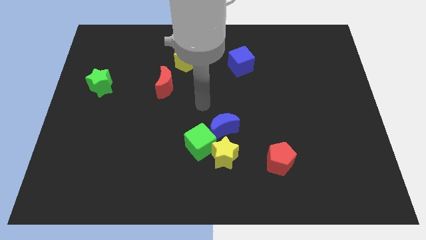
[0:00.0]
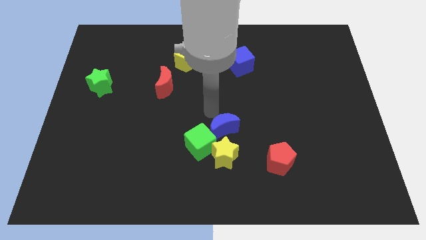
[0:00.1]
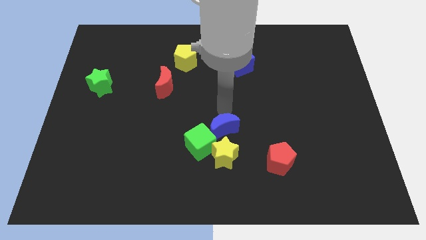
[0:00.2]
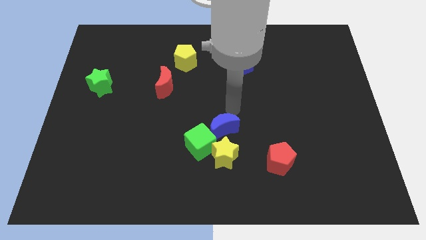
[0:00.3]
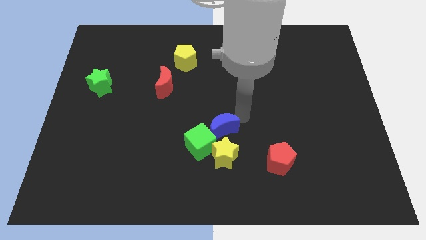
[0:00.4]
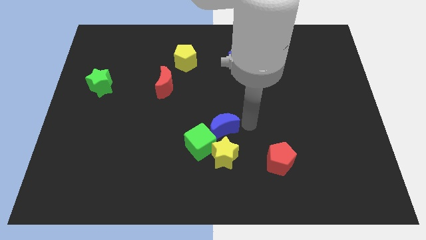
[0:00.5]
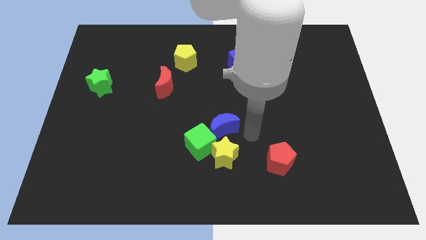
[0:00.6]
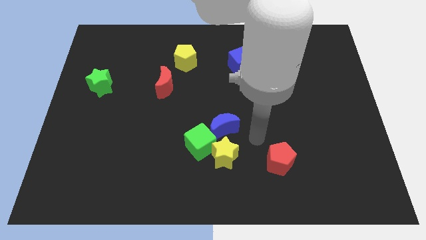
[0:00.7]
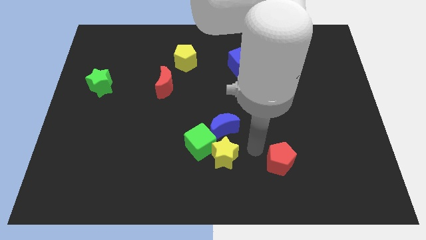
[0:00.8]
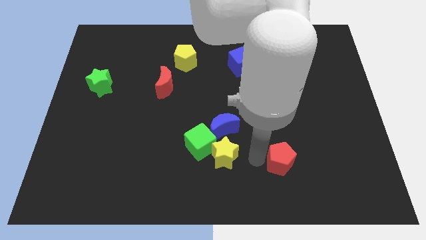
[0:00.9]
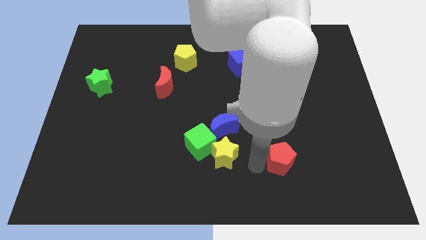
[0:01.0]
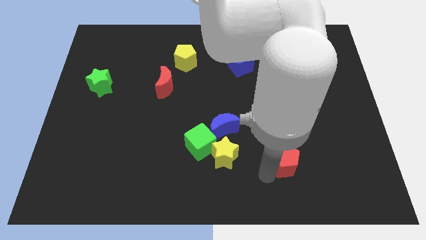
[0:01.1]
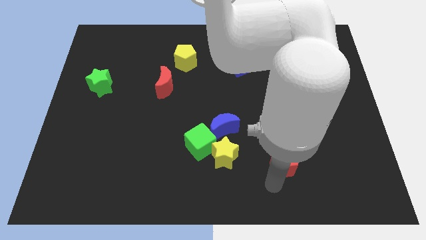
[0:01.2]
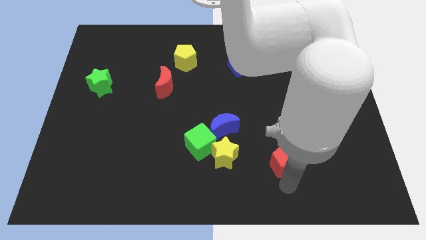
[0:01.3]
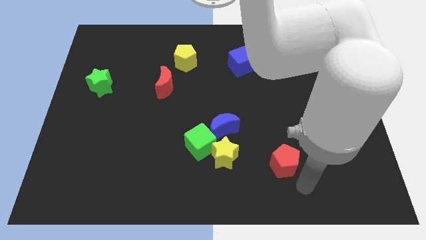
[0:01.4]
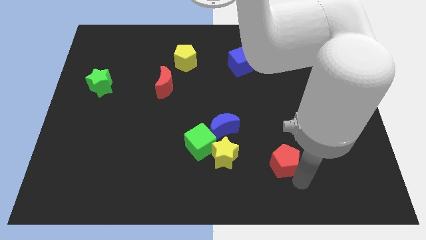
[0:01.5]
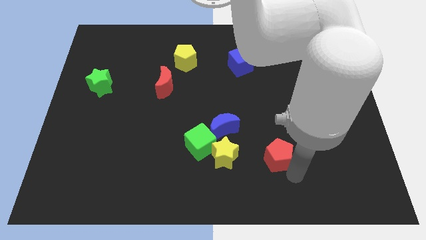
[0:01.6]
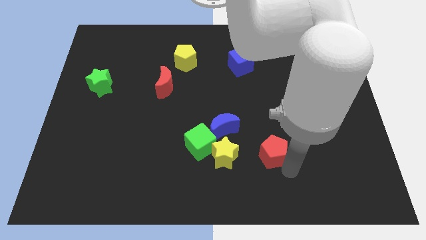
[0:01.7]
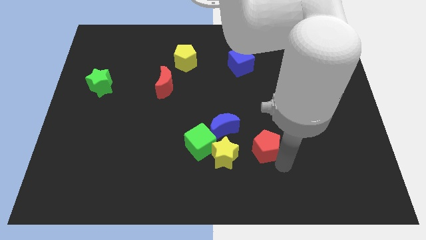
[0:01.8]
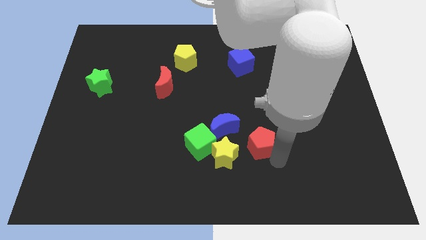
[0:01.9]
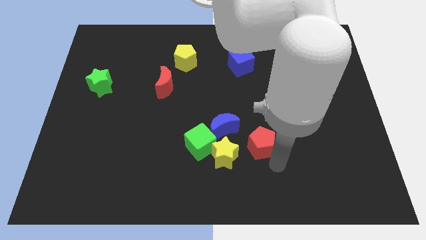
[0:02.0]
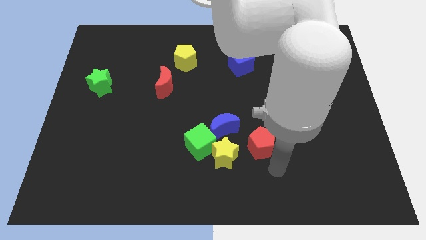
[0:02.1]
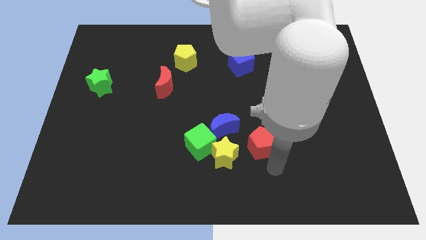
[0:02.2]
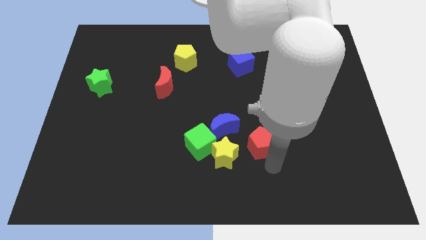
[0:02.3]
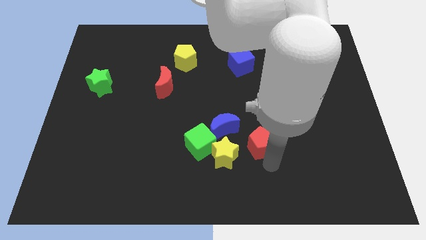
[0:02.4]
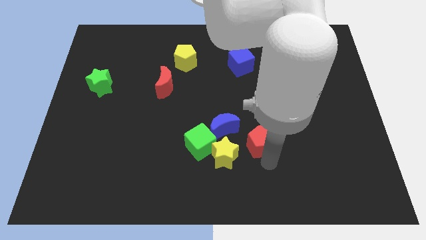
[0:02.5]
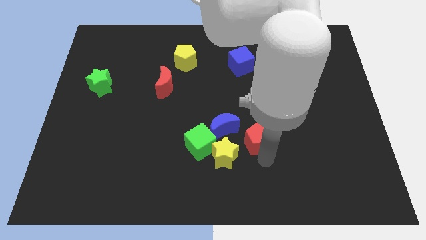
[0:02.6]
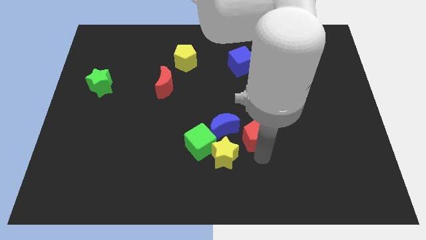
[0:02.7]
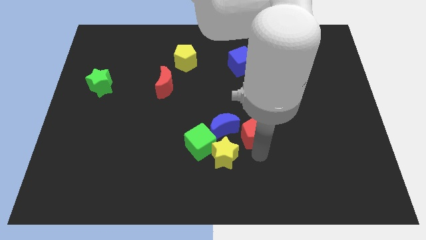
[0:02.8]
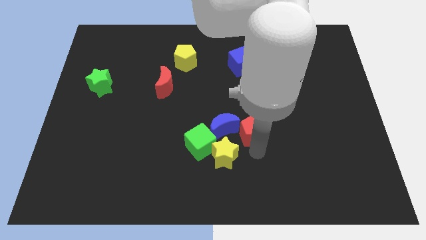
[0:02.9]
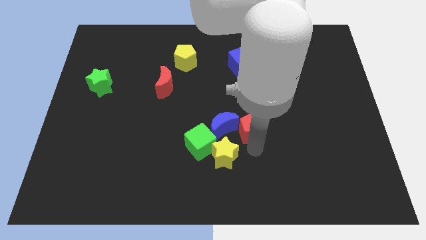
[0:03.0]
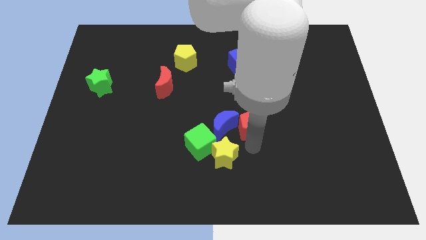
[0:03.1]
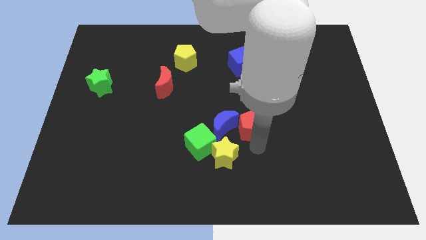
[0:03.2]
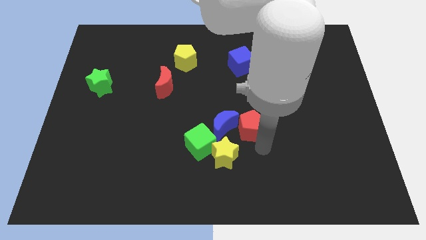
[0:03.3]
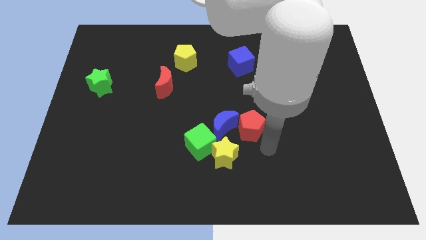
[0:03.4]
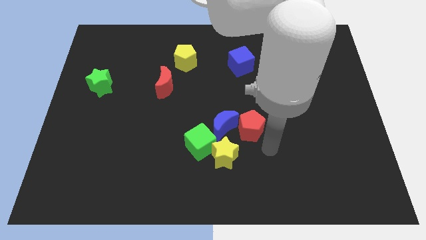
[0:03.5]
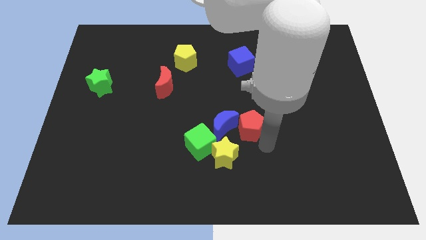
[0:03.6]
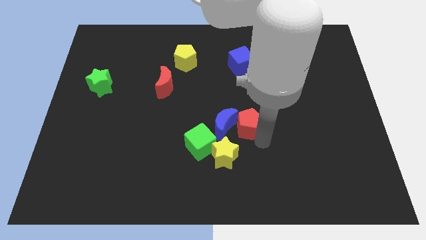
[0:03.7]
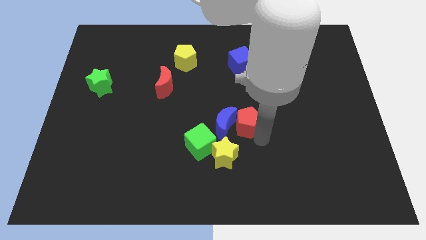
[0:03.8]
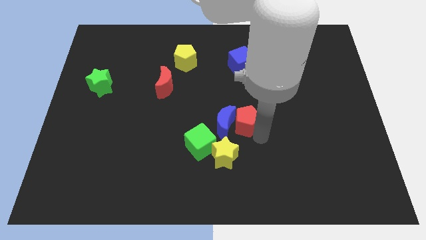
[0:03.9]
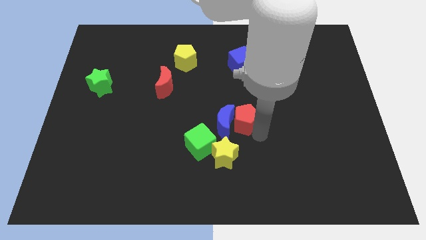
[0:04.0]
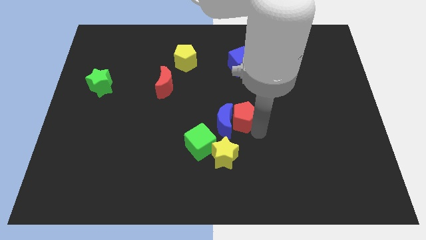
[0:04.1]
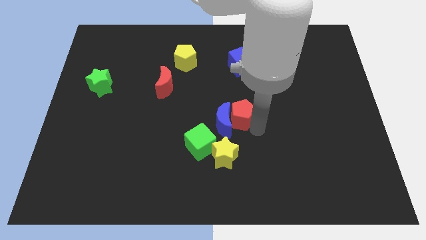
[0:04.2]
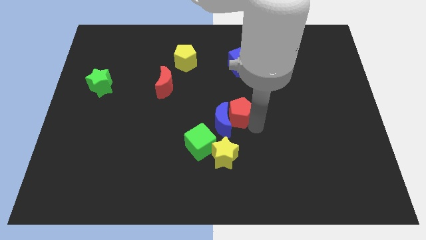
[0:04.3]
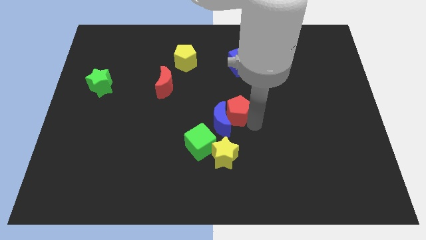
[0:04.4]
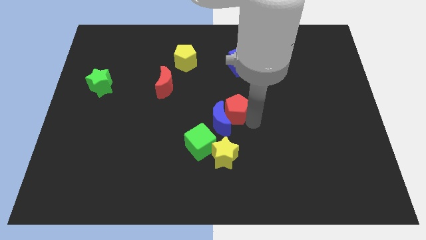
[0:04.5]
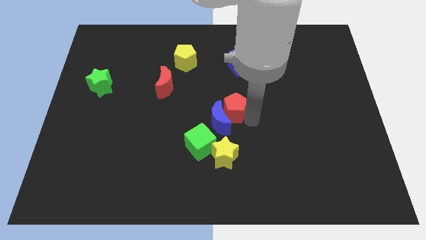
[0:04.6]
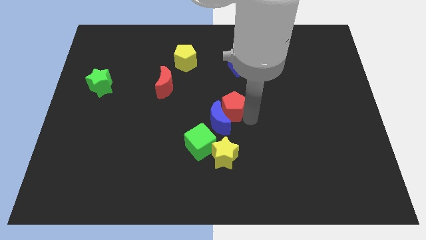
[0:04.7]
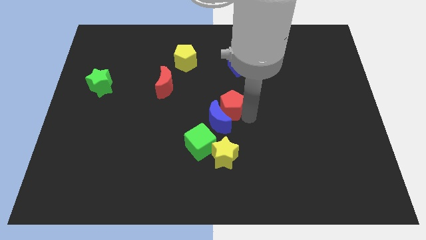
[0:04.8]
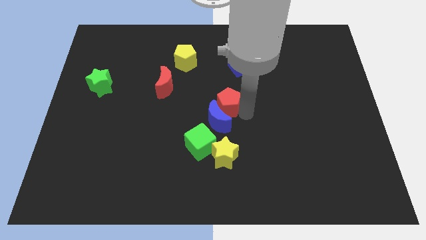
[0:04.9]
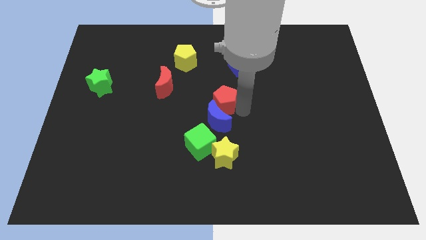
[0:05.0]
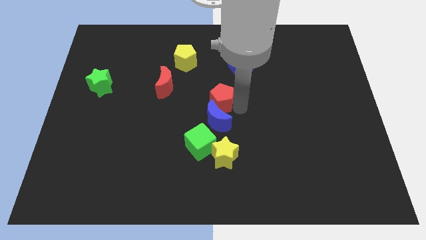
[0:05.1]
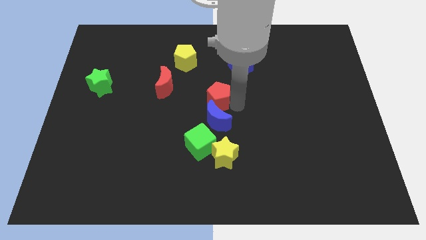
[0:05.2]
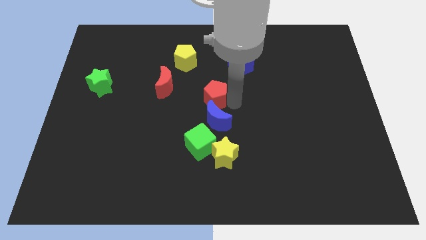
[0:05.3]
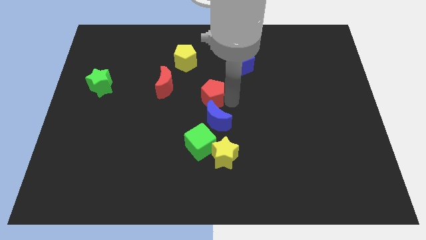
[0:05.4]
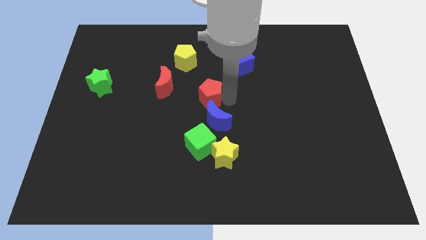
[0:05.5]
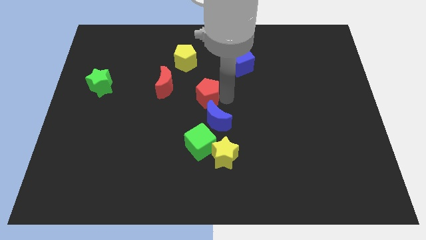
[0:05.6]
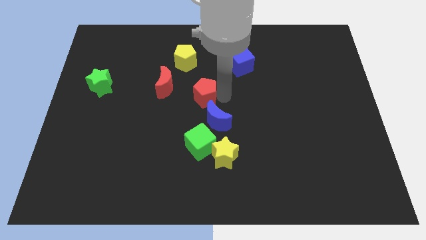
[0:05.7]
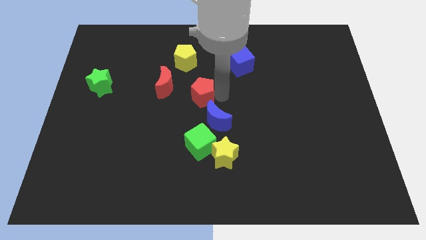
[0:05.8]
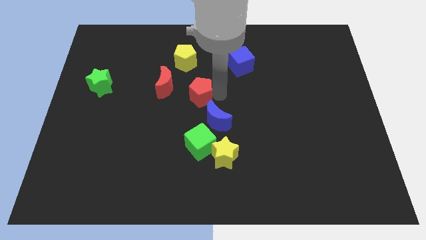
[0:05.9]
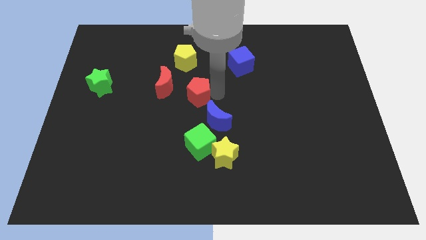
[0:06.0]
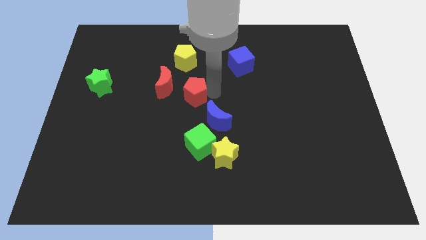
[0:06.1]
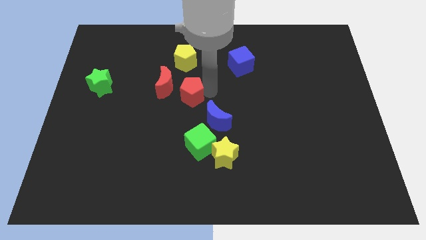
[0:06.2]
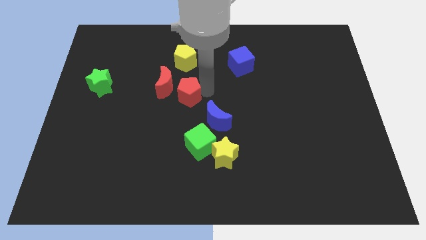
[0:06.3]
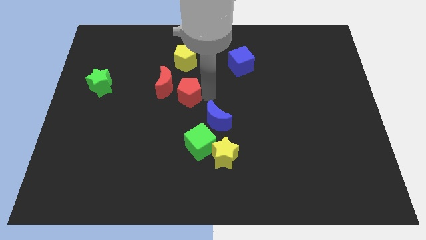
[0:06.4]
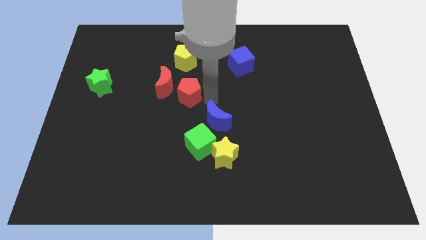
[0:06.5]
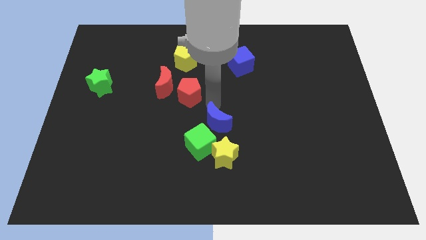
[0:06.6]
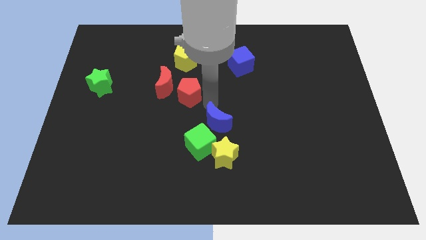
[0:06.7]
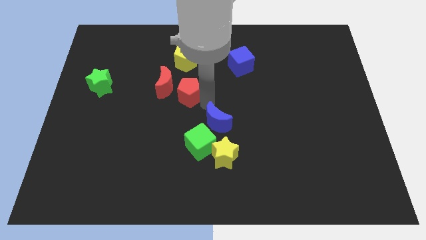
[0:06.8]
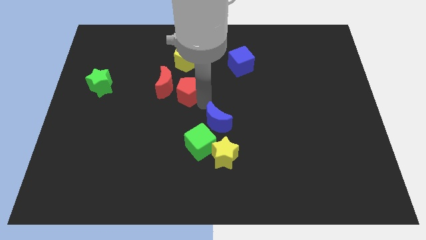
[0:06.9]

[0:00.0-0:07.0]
slide the red pentagon close to the red moon
